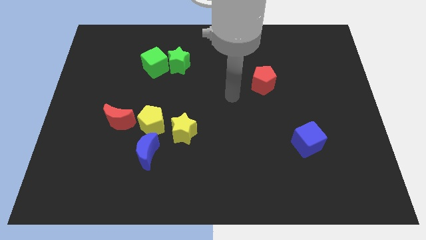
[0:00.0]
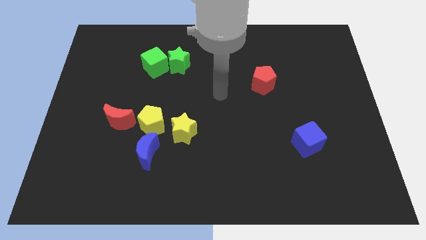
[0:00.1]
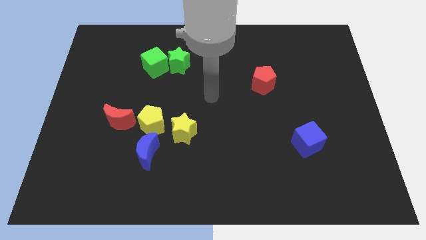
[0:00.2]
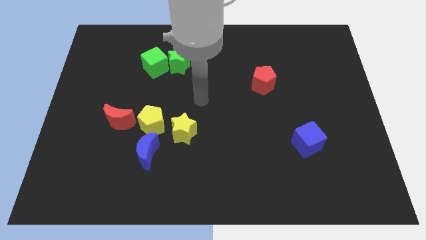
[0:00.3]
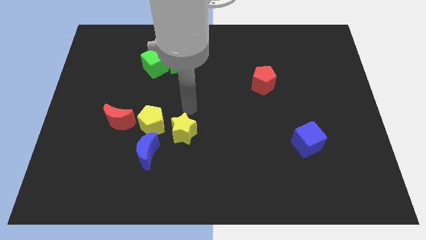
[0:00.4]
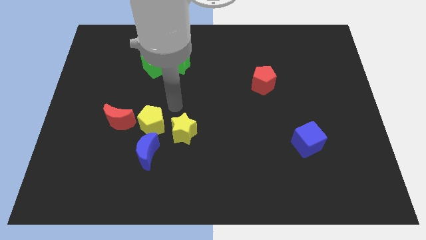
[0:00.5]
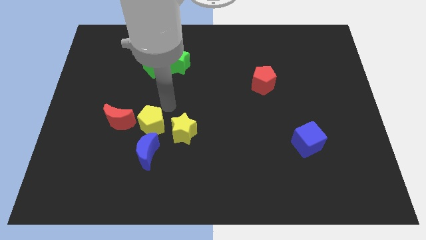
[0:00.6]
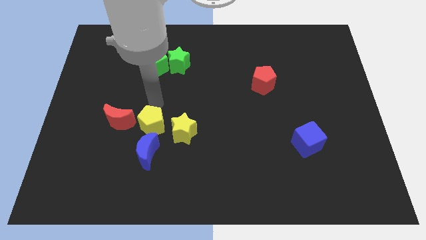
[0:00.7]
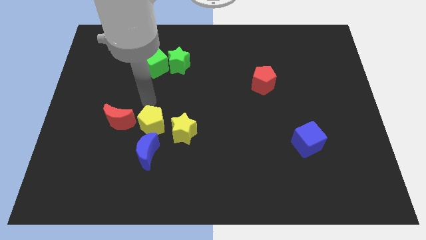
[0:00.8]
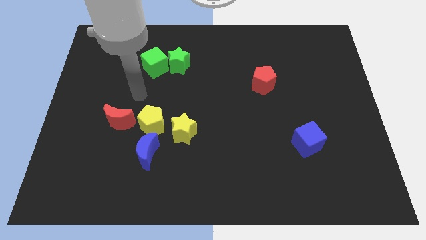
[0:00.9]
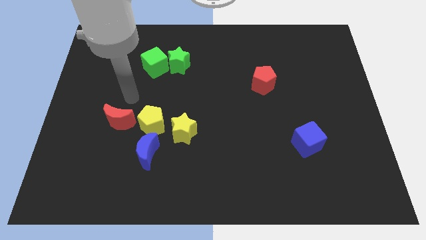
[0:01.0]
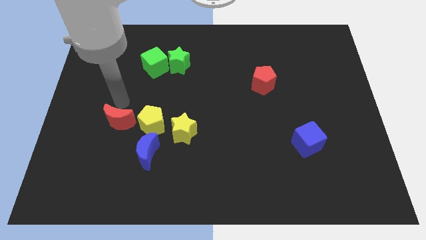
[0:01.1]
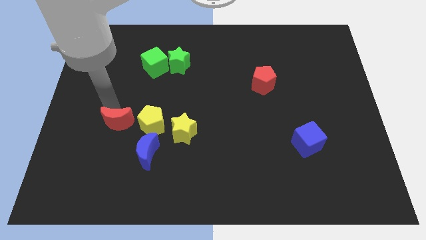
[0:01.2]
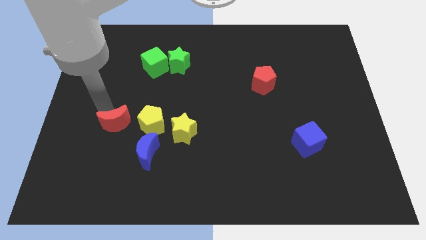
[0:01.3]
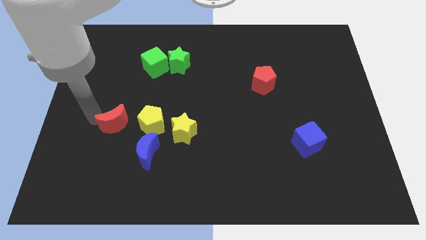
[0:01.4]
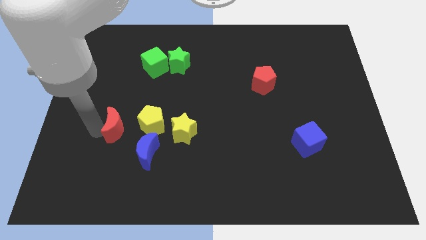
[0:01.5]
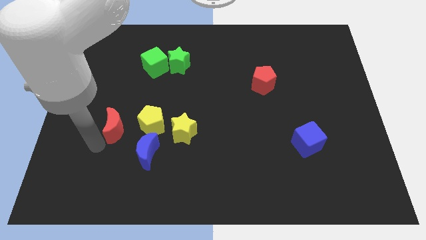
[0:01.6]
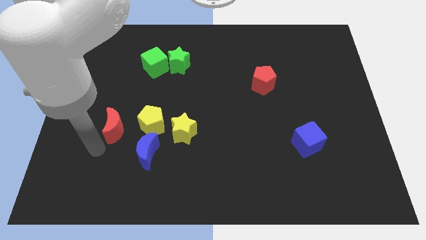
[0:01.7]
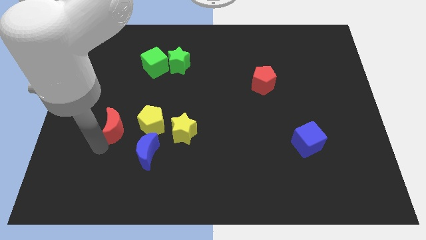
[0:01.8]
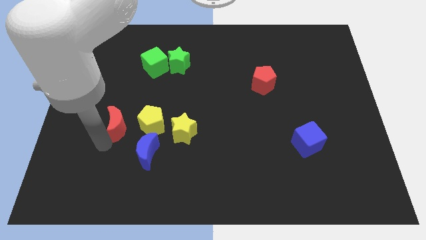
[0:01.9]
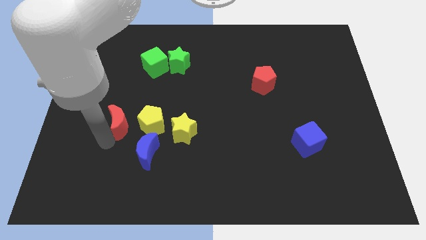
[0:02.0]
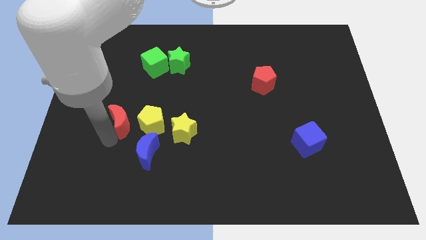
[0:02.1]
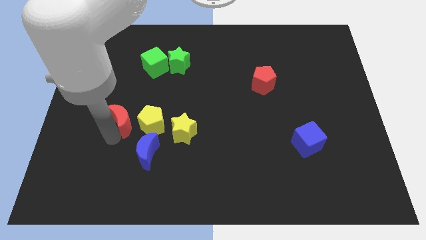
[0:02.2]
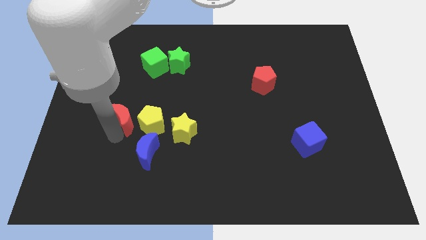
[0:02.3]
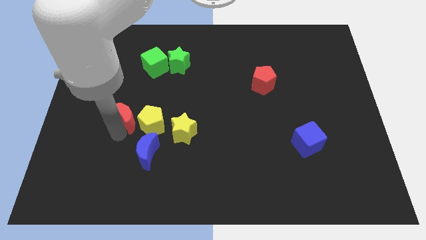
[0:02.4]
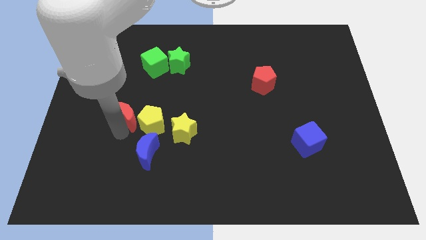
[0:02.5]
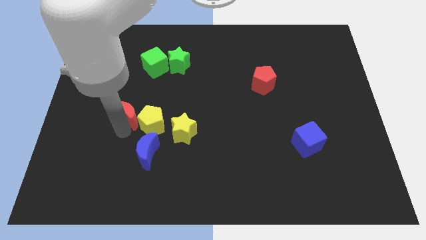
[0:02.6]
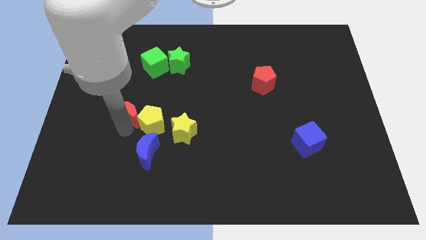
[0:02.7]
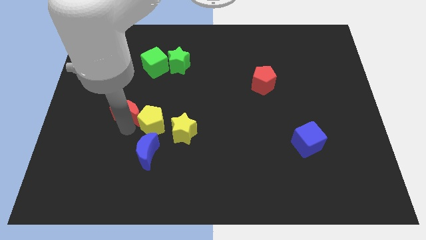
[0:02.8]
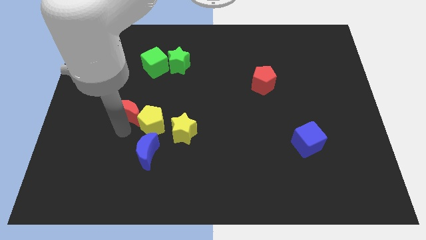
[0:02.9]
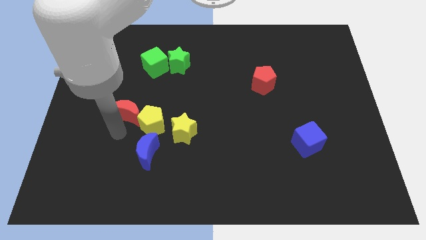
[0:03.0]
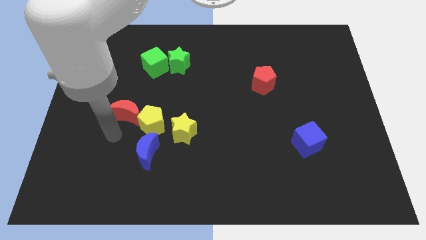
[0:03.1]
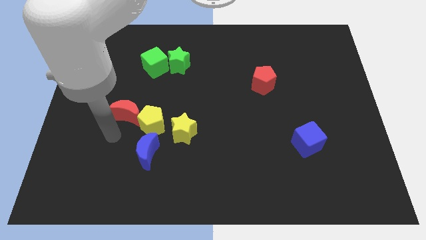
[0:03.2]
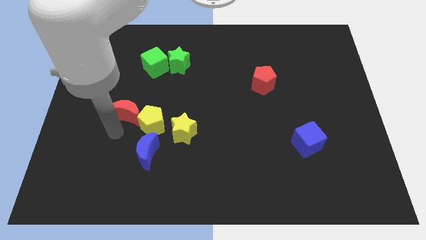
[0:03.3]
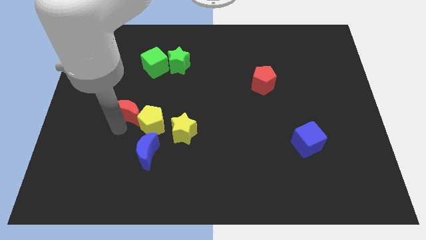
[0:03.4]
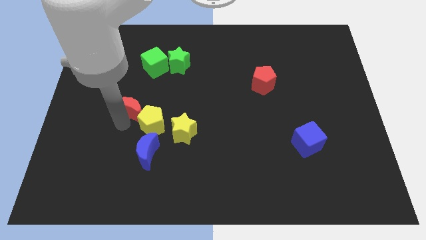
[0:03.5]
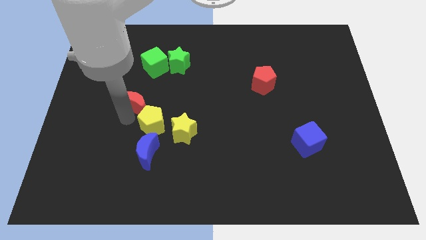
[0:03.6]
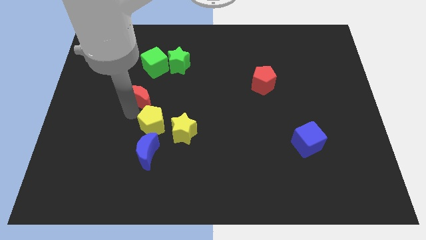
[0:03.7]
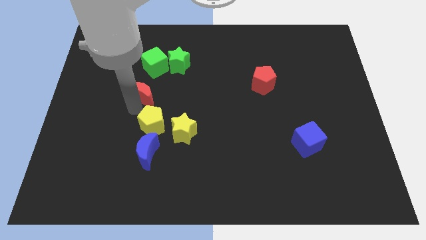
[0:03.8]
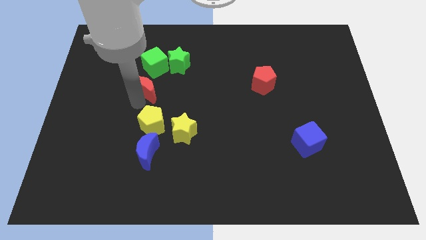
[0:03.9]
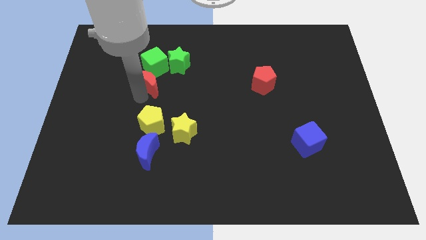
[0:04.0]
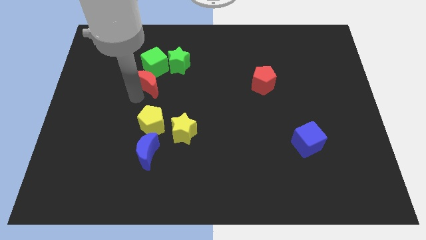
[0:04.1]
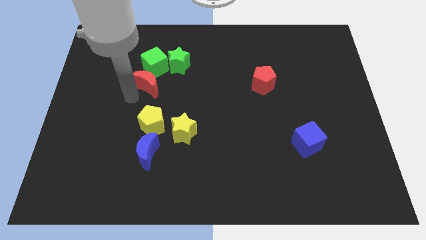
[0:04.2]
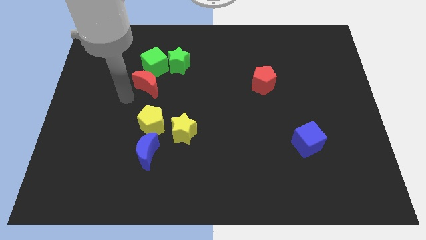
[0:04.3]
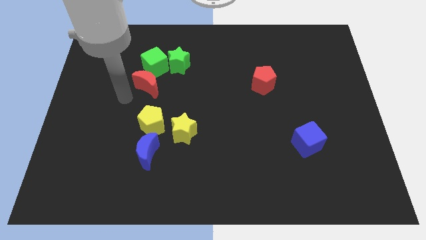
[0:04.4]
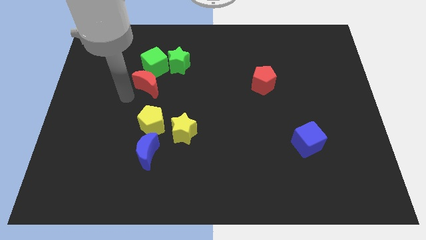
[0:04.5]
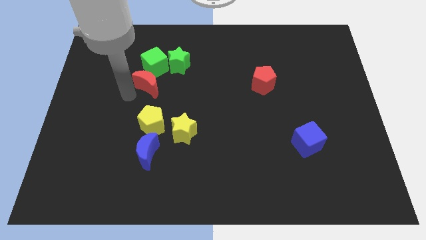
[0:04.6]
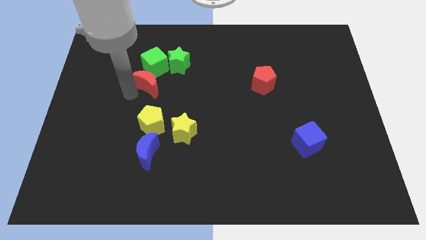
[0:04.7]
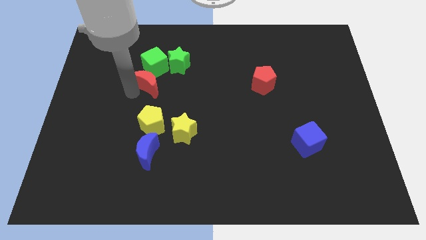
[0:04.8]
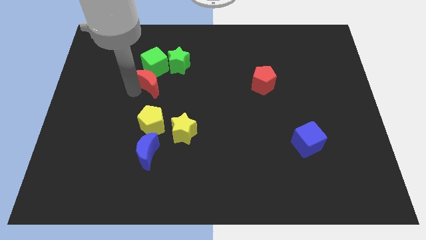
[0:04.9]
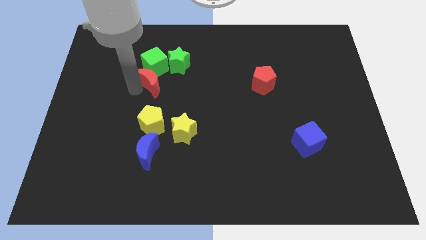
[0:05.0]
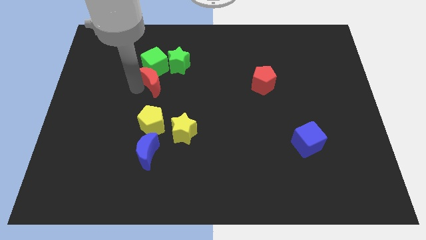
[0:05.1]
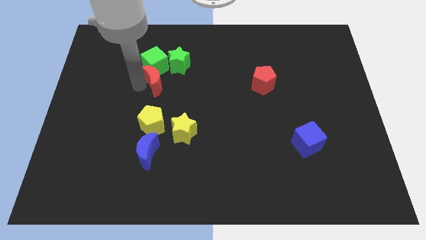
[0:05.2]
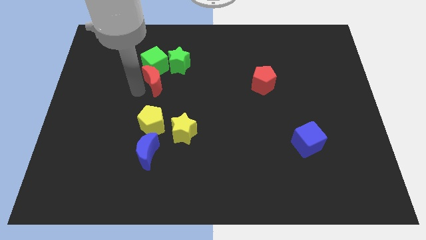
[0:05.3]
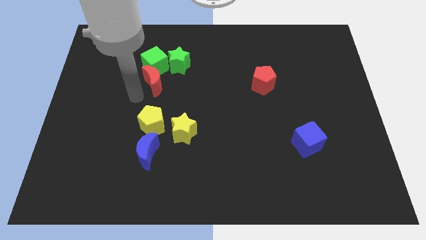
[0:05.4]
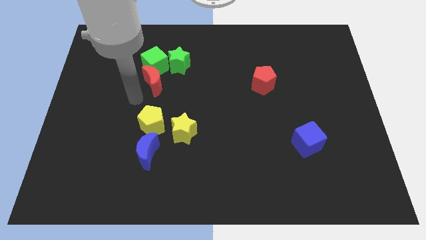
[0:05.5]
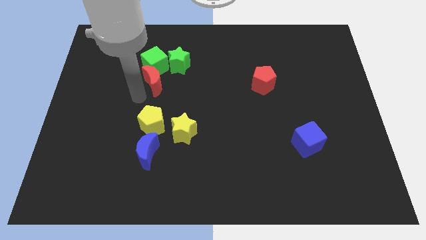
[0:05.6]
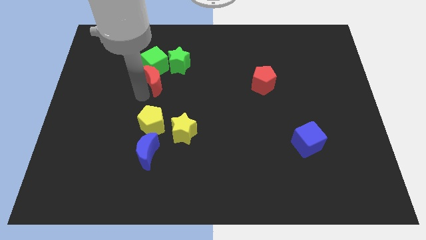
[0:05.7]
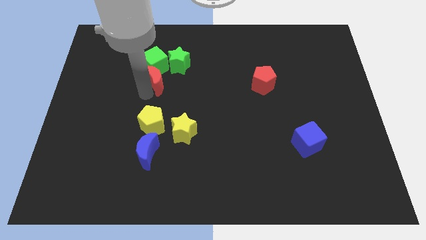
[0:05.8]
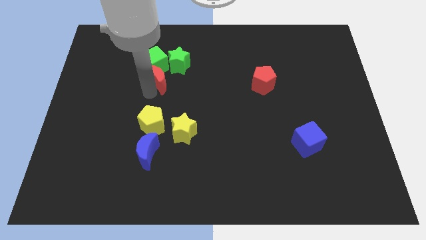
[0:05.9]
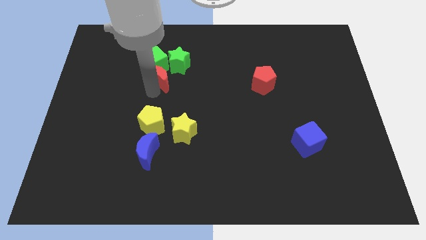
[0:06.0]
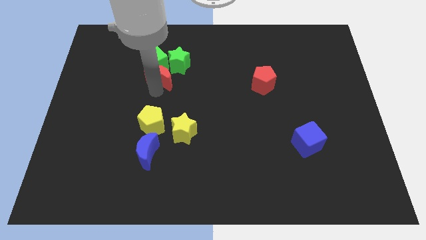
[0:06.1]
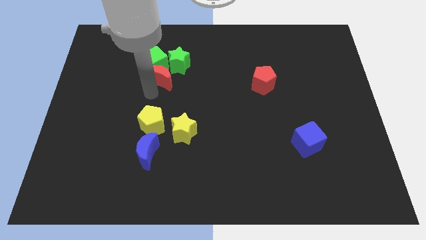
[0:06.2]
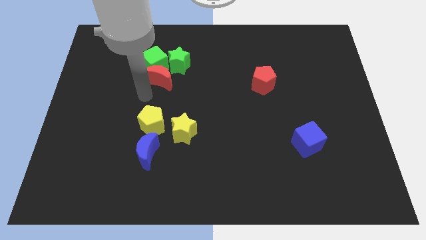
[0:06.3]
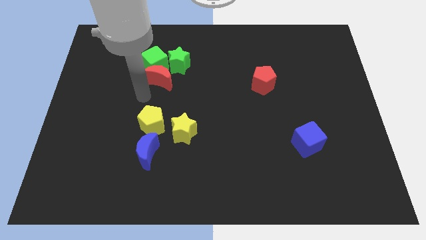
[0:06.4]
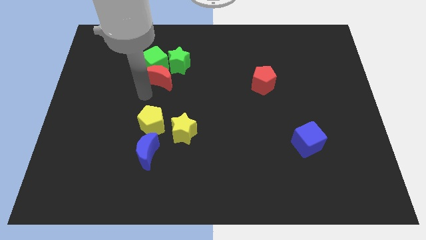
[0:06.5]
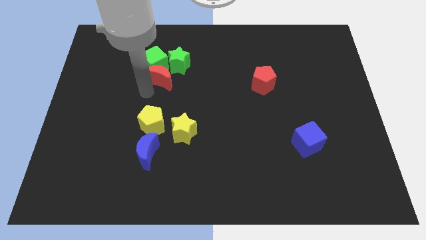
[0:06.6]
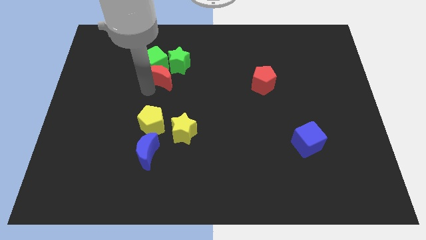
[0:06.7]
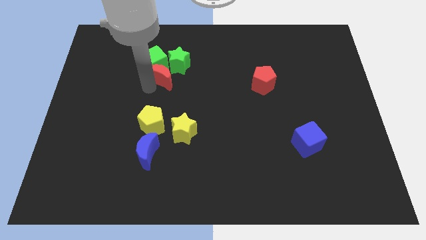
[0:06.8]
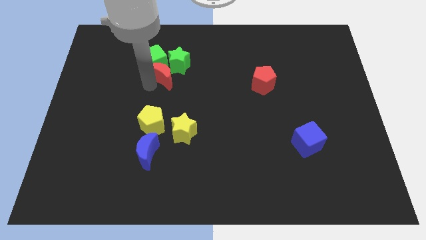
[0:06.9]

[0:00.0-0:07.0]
slide the red moon to the green star

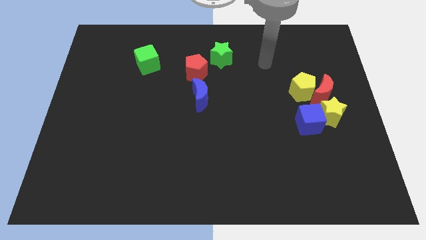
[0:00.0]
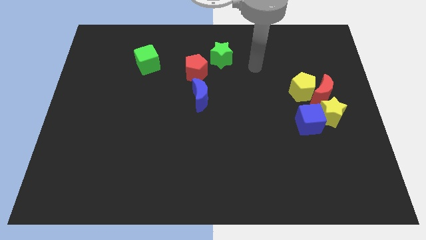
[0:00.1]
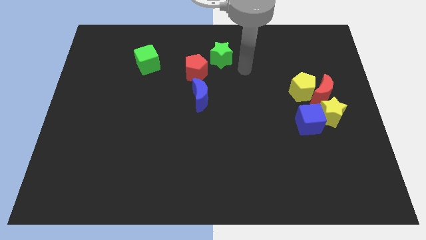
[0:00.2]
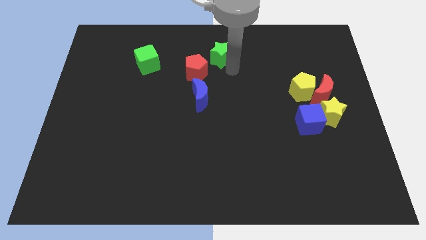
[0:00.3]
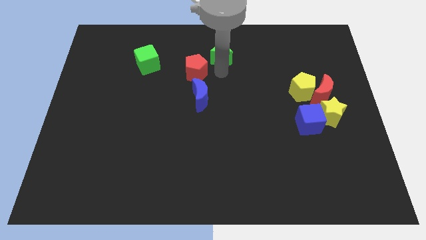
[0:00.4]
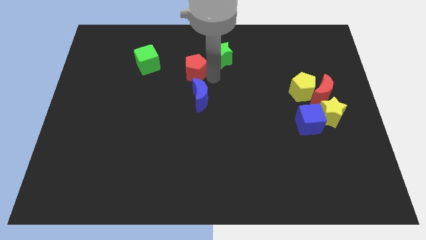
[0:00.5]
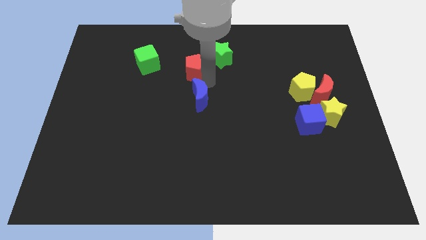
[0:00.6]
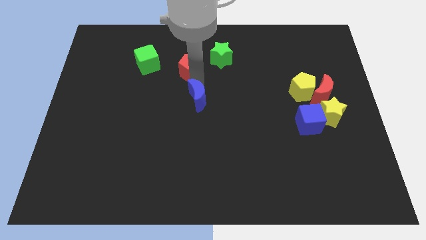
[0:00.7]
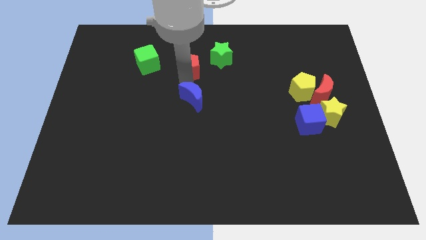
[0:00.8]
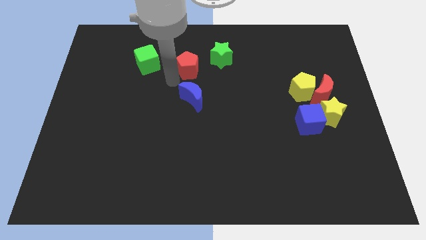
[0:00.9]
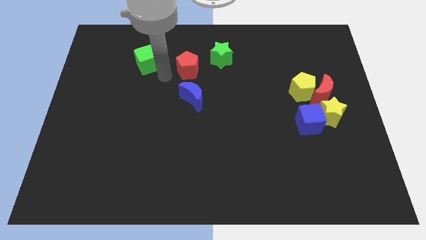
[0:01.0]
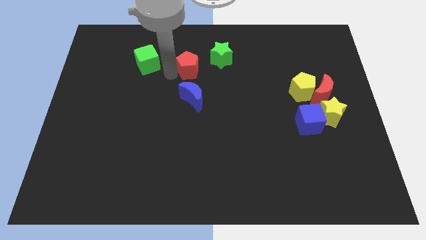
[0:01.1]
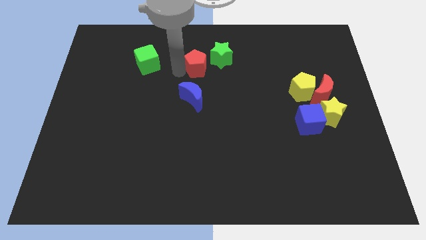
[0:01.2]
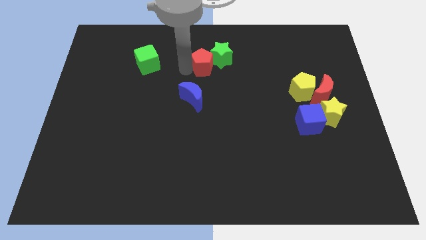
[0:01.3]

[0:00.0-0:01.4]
put the red pentagon next to the green star
